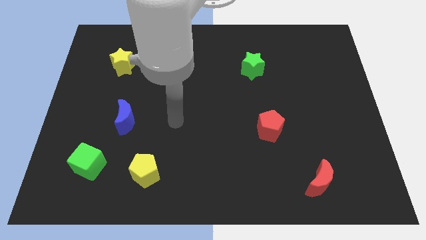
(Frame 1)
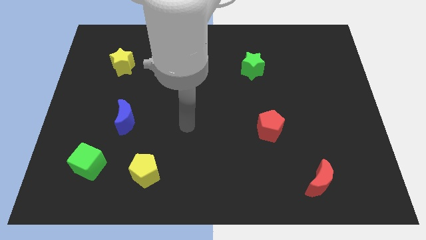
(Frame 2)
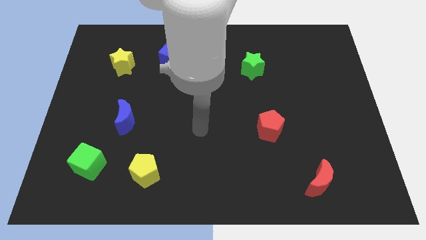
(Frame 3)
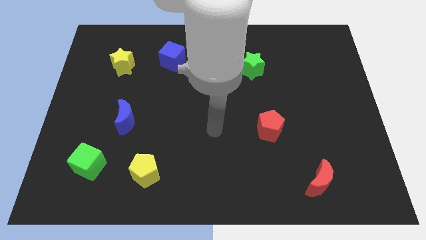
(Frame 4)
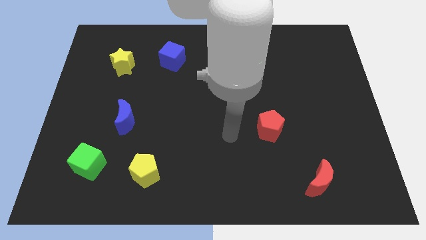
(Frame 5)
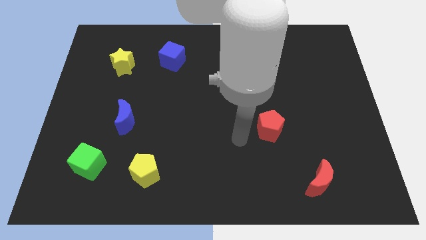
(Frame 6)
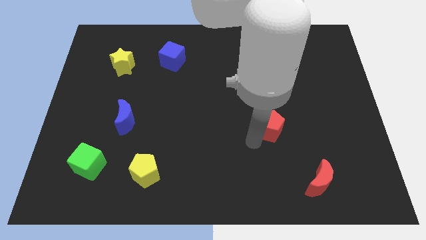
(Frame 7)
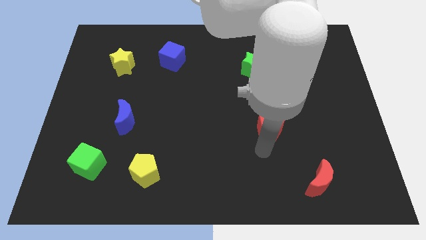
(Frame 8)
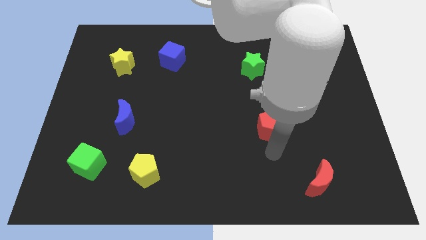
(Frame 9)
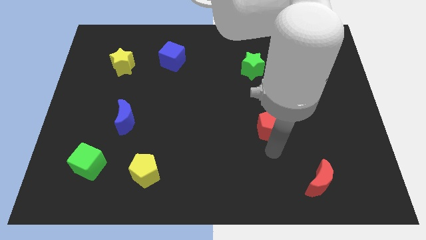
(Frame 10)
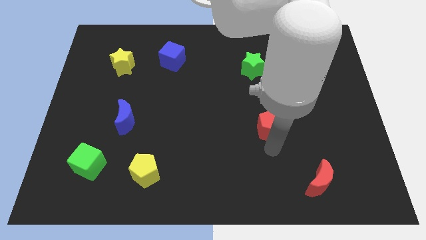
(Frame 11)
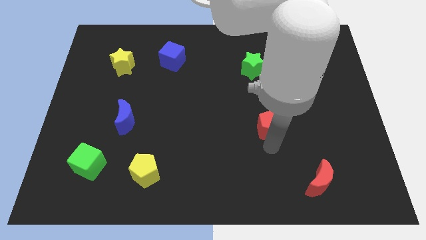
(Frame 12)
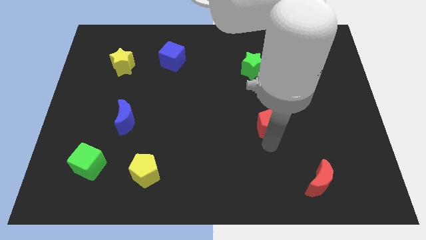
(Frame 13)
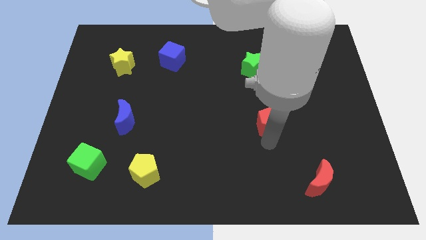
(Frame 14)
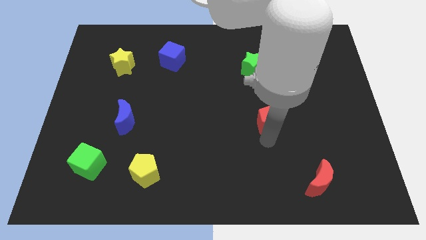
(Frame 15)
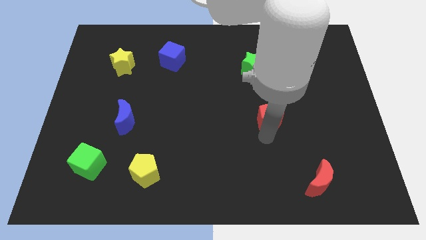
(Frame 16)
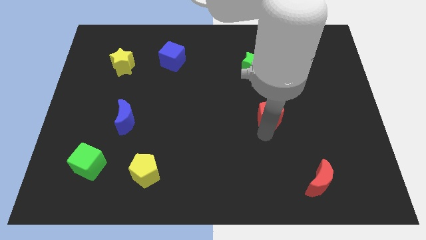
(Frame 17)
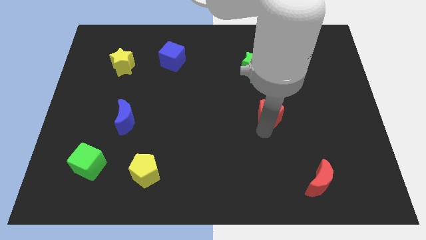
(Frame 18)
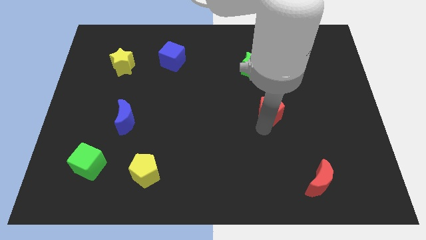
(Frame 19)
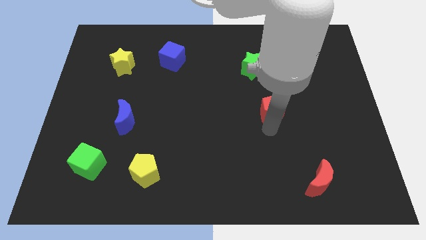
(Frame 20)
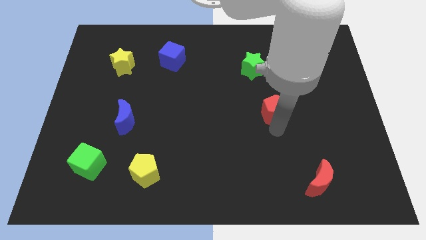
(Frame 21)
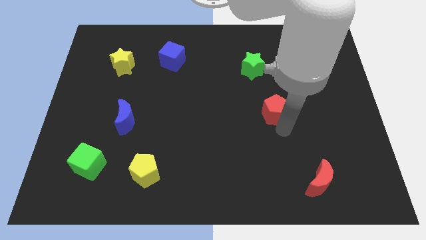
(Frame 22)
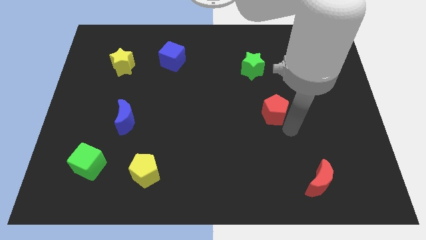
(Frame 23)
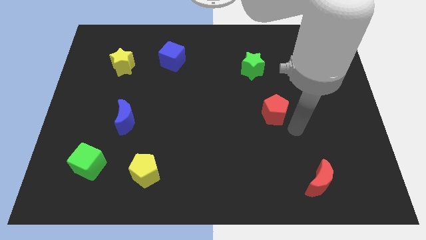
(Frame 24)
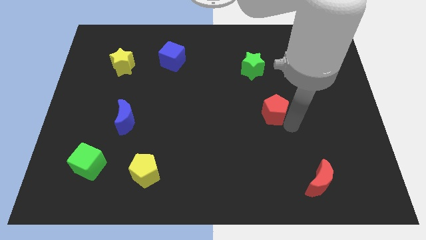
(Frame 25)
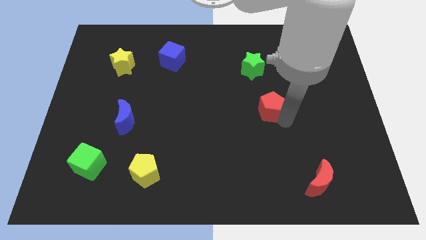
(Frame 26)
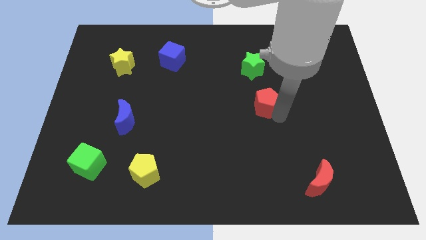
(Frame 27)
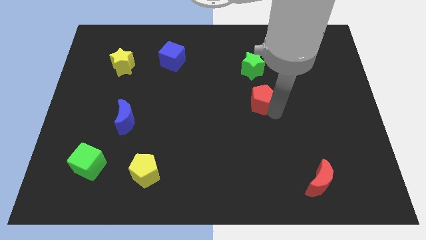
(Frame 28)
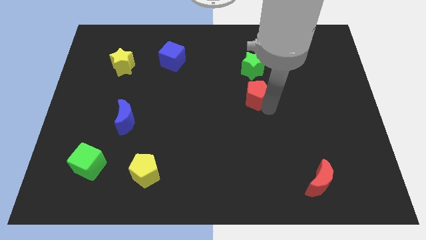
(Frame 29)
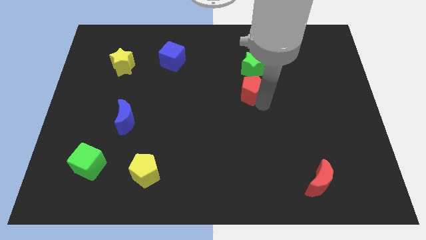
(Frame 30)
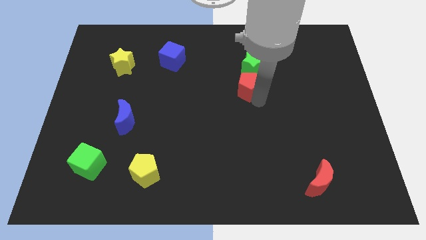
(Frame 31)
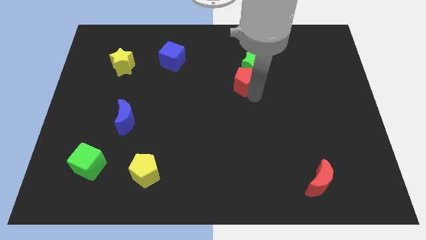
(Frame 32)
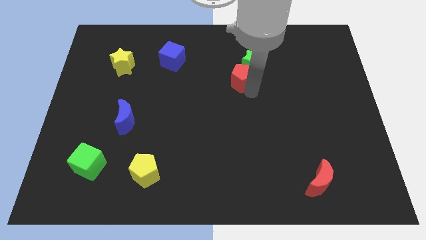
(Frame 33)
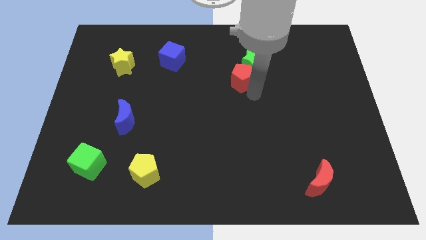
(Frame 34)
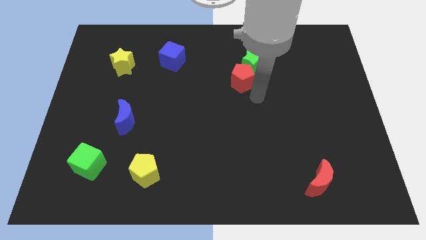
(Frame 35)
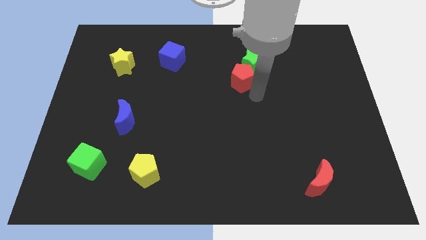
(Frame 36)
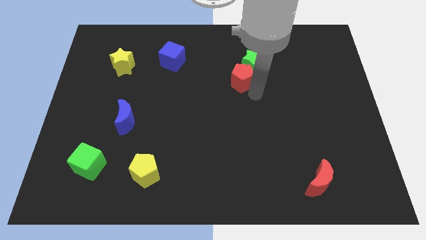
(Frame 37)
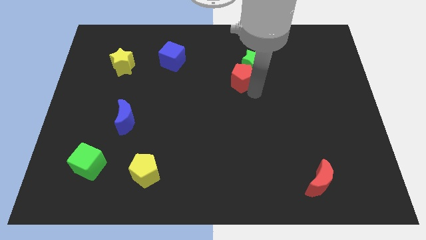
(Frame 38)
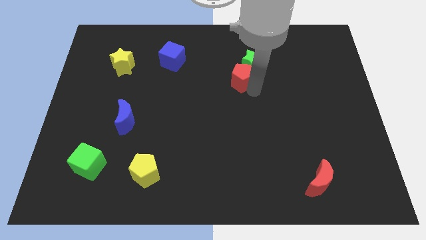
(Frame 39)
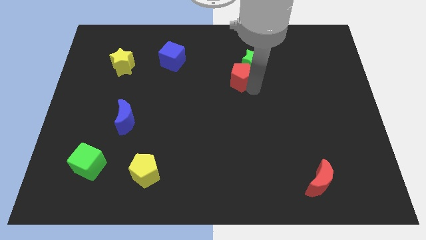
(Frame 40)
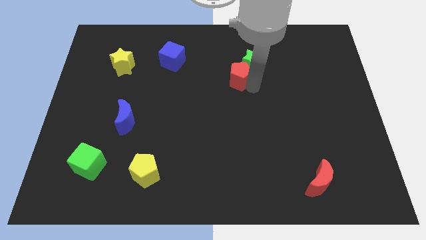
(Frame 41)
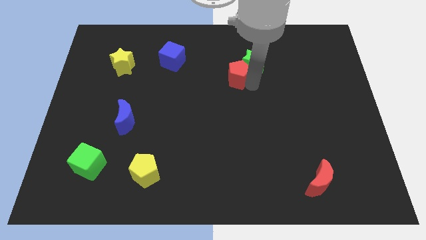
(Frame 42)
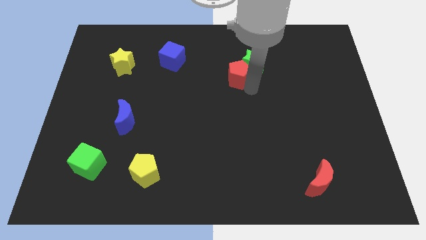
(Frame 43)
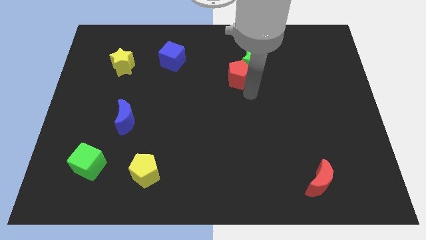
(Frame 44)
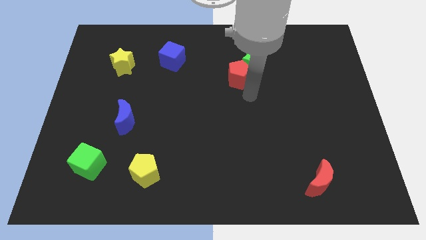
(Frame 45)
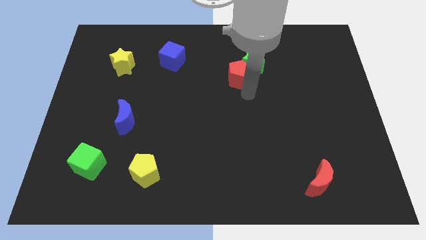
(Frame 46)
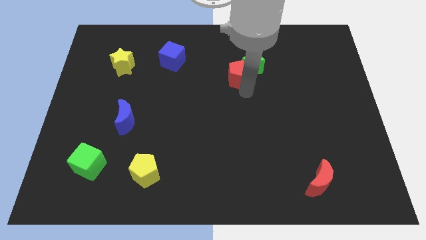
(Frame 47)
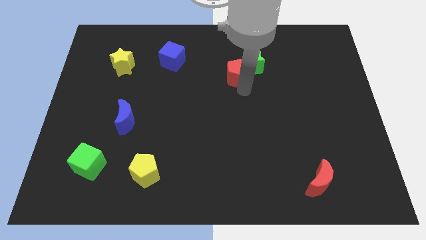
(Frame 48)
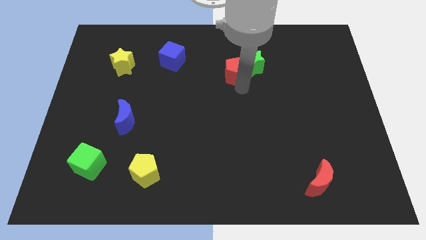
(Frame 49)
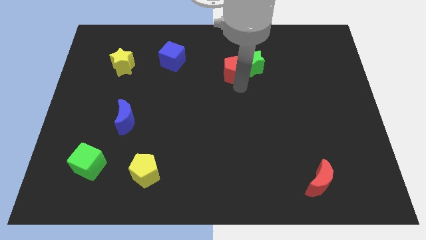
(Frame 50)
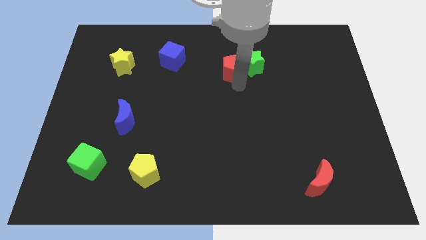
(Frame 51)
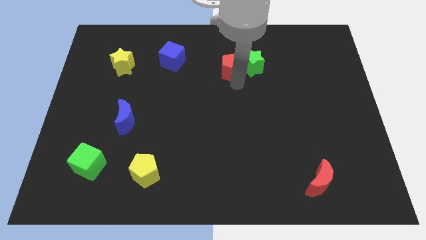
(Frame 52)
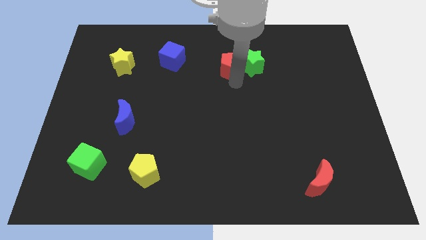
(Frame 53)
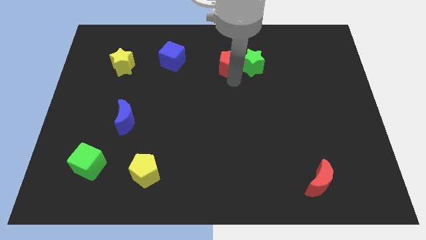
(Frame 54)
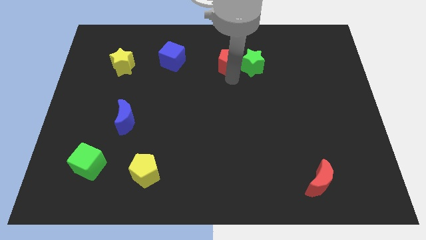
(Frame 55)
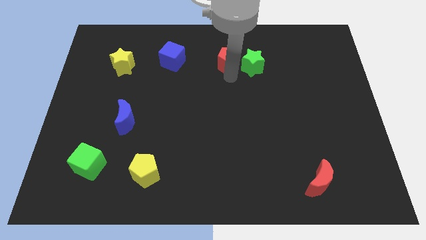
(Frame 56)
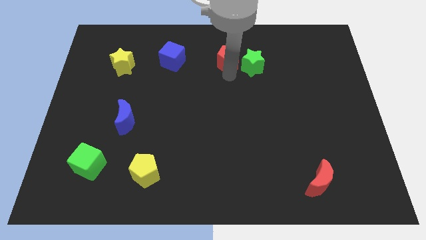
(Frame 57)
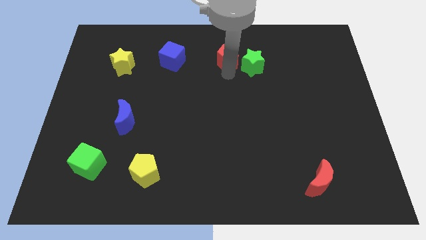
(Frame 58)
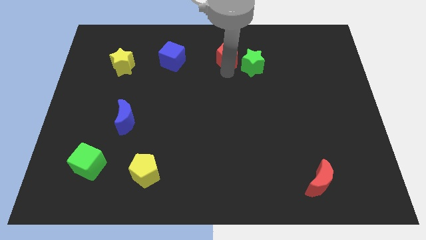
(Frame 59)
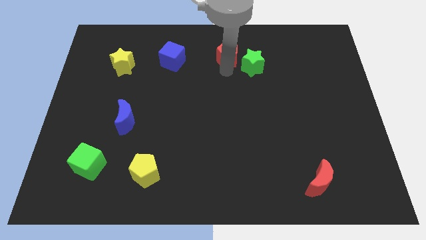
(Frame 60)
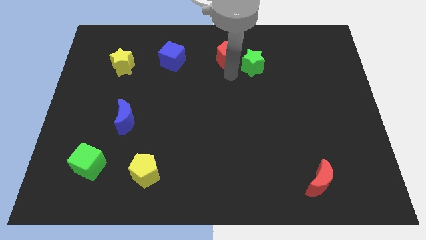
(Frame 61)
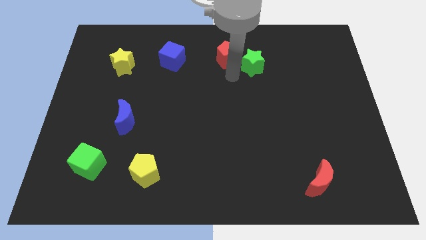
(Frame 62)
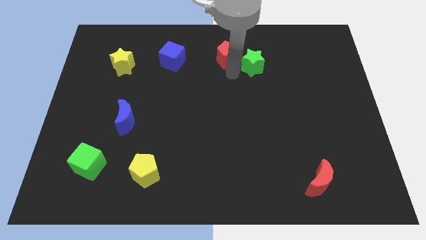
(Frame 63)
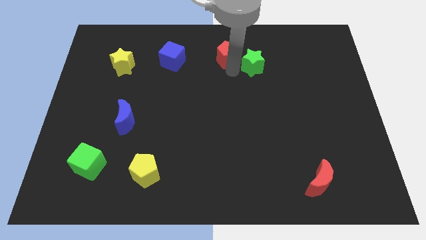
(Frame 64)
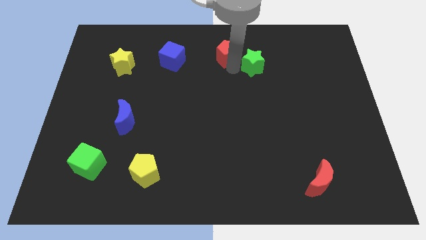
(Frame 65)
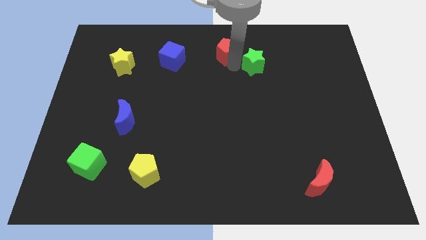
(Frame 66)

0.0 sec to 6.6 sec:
push the red pentagon to the towards your base

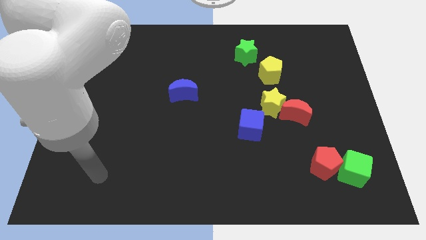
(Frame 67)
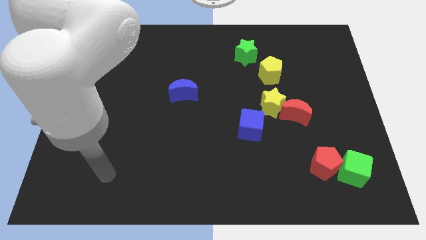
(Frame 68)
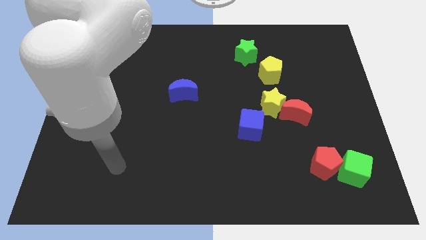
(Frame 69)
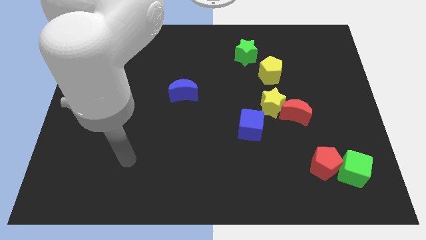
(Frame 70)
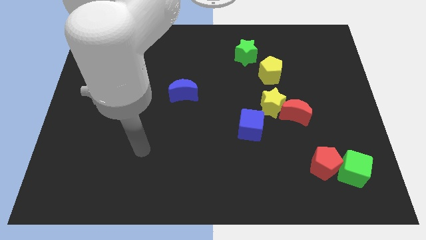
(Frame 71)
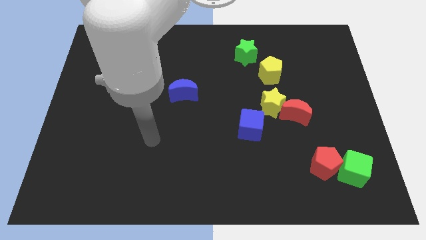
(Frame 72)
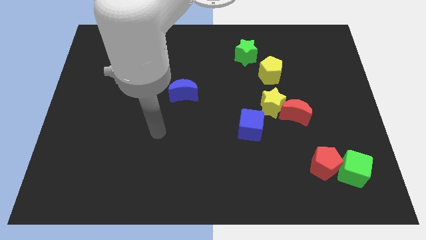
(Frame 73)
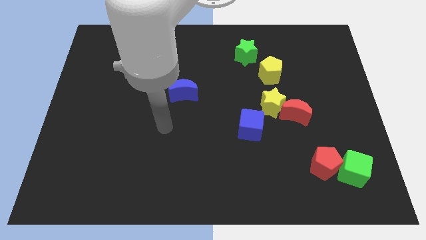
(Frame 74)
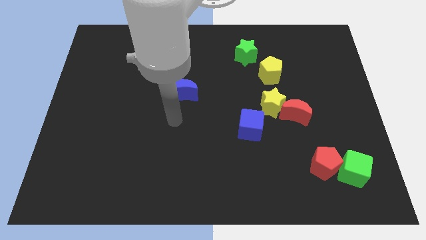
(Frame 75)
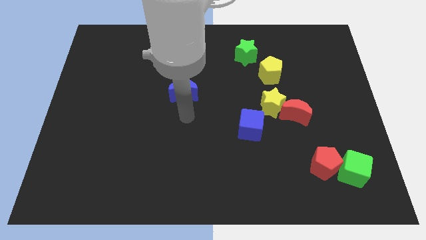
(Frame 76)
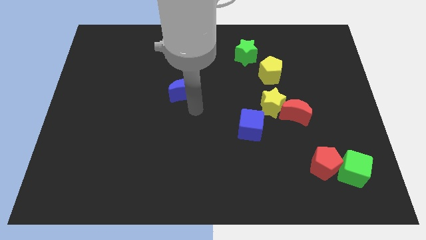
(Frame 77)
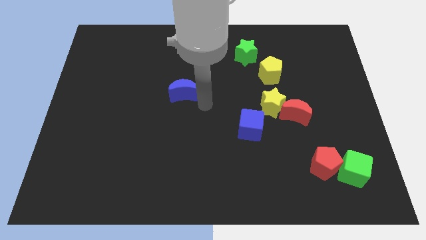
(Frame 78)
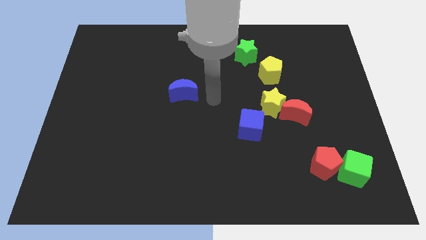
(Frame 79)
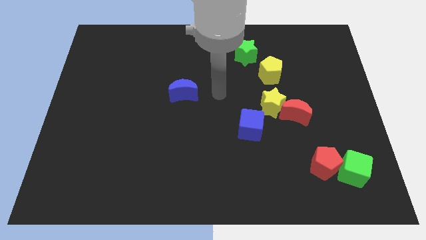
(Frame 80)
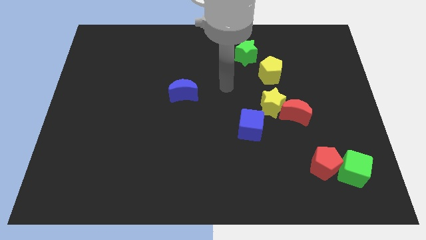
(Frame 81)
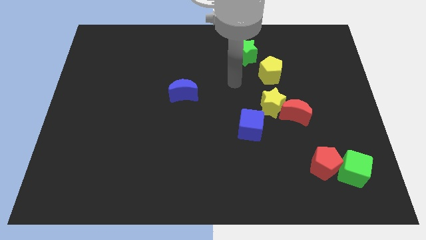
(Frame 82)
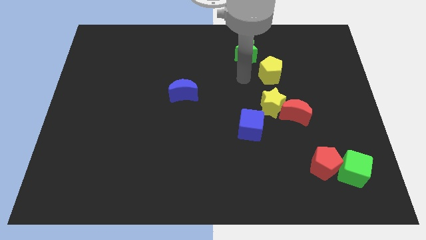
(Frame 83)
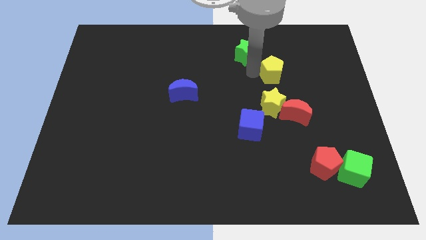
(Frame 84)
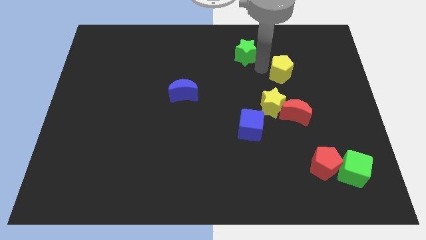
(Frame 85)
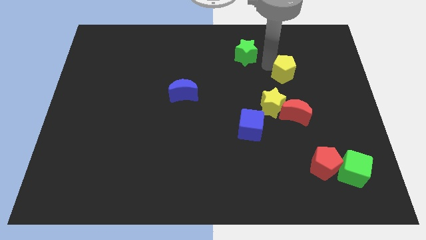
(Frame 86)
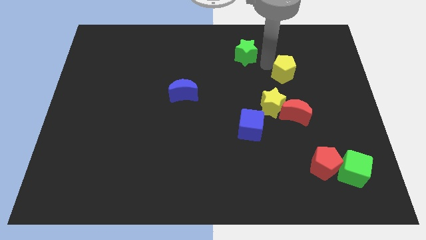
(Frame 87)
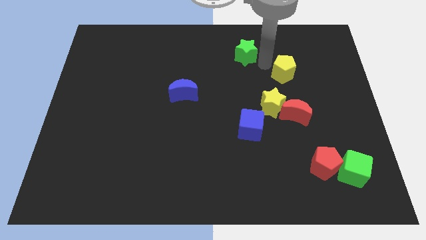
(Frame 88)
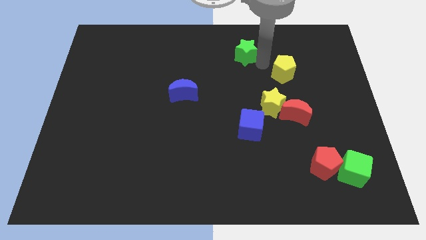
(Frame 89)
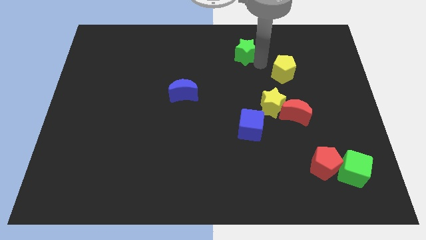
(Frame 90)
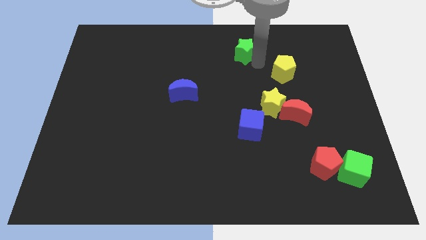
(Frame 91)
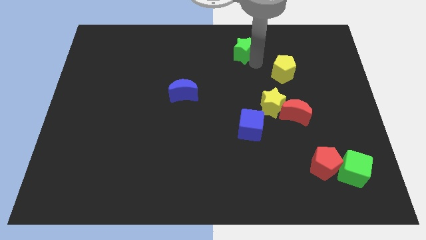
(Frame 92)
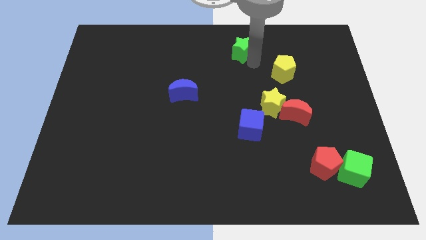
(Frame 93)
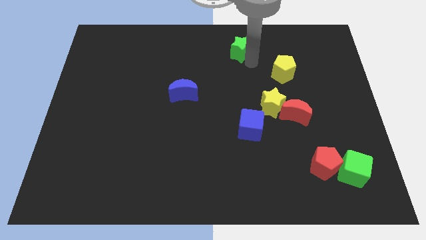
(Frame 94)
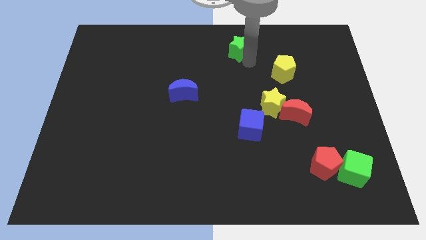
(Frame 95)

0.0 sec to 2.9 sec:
move the green star to the top
